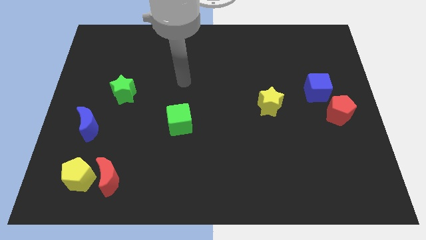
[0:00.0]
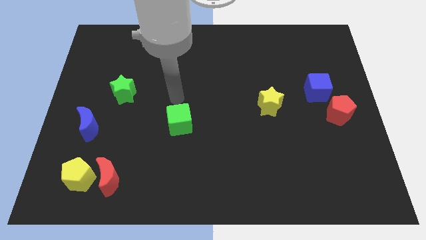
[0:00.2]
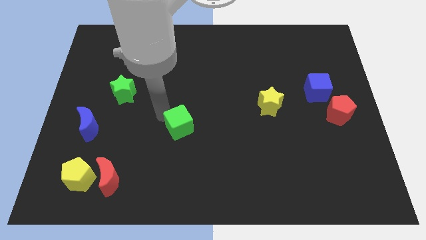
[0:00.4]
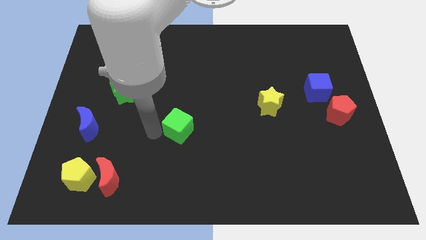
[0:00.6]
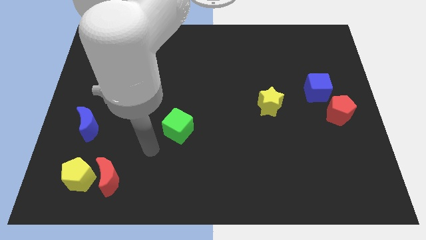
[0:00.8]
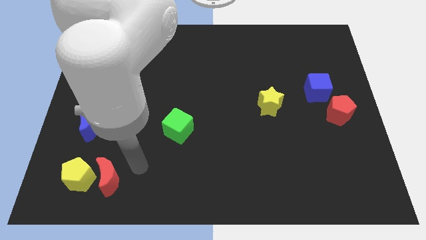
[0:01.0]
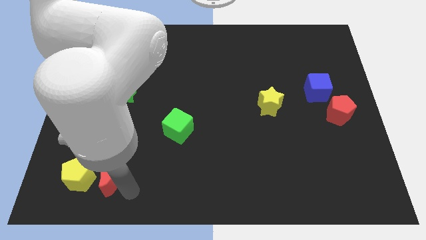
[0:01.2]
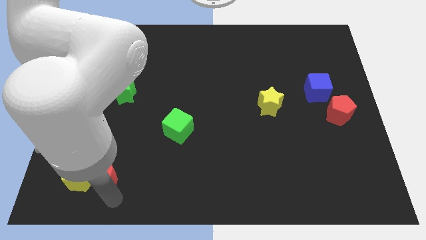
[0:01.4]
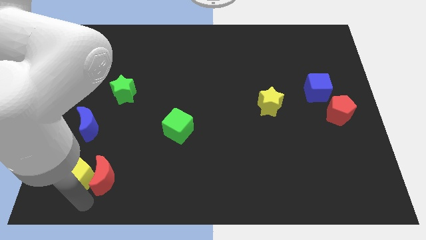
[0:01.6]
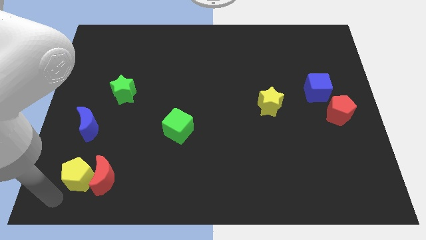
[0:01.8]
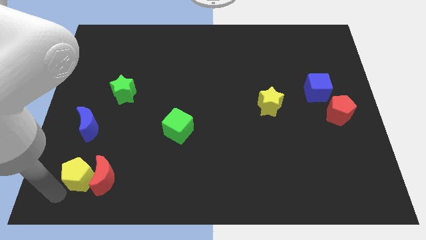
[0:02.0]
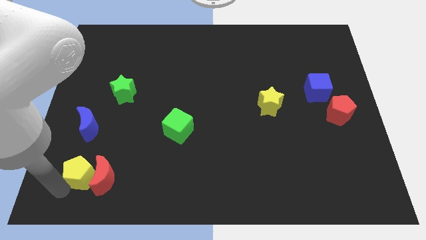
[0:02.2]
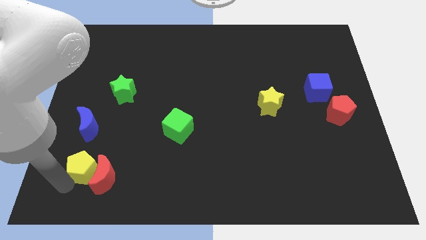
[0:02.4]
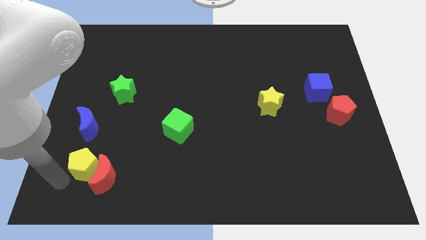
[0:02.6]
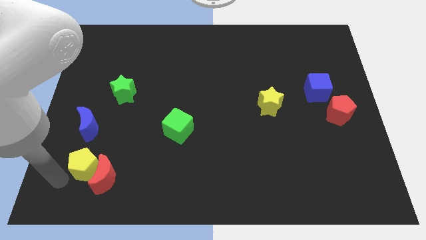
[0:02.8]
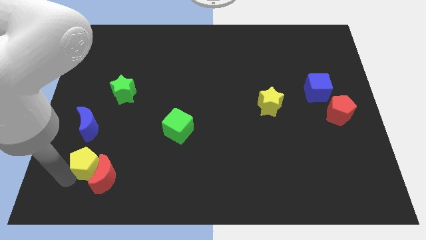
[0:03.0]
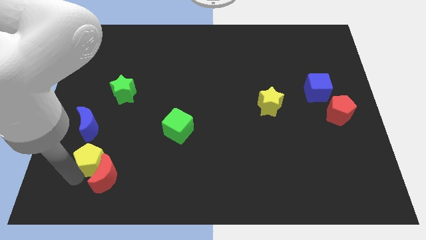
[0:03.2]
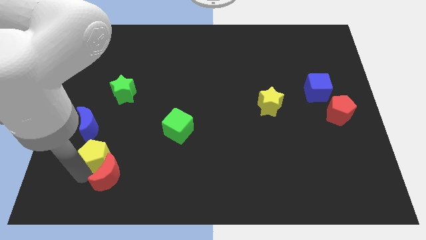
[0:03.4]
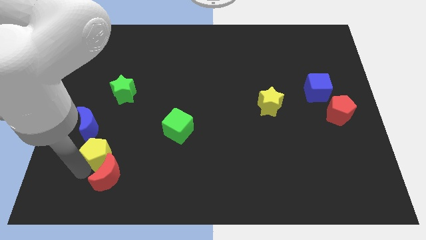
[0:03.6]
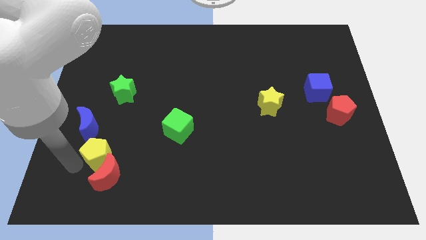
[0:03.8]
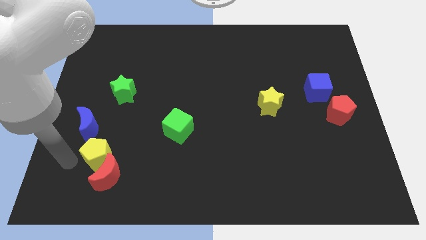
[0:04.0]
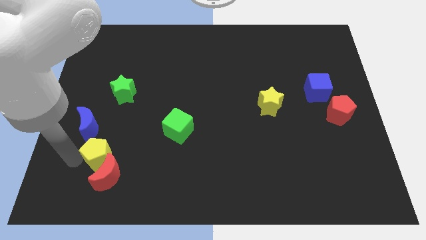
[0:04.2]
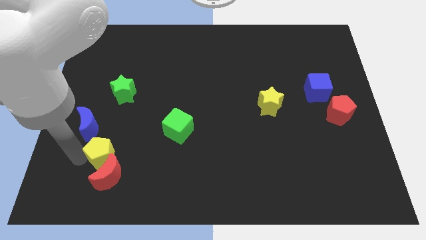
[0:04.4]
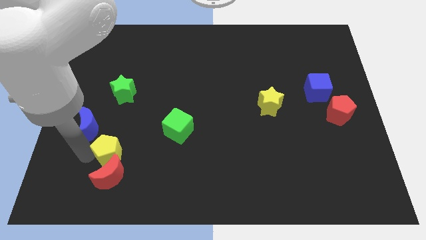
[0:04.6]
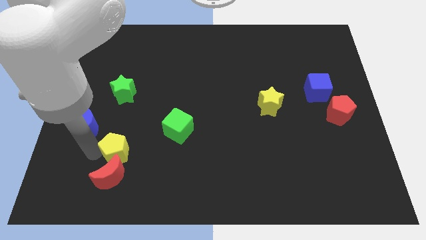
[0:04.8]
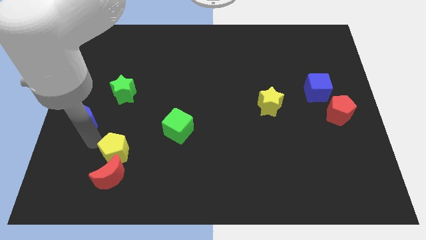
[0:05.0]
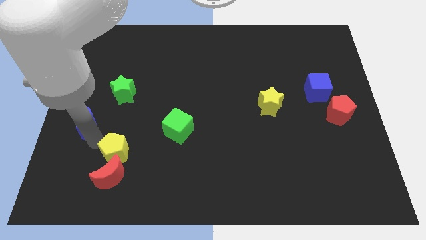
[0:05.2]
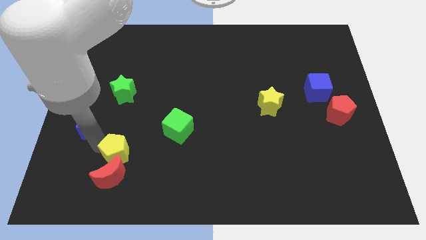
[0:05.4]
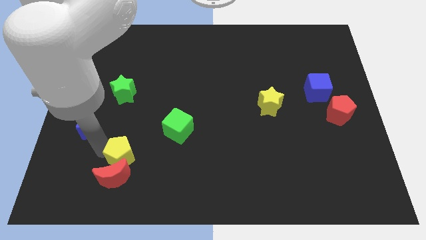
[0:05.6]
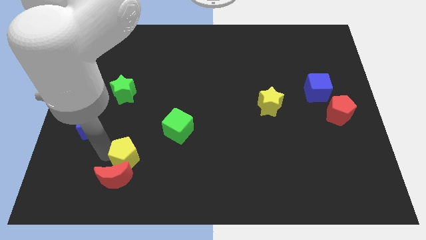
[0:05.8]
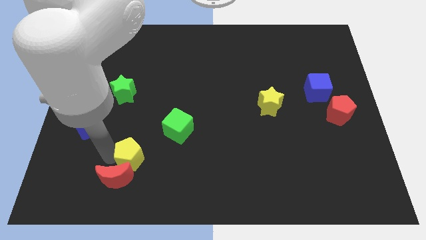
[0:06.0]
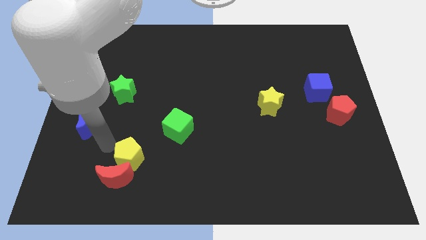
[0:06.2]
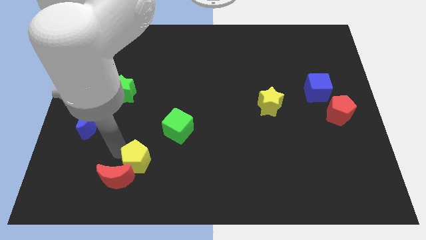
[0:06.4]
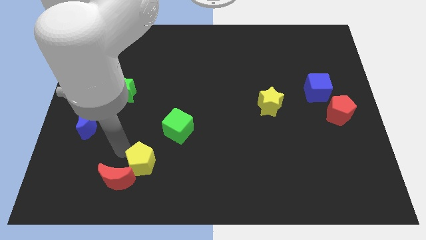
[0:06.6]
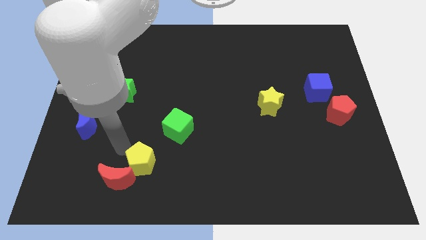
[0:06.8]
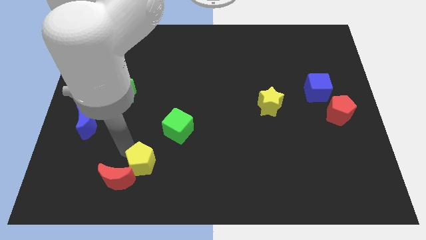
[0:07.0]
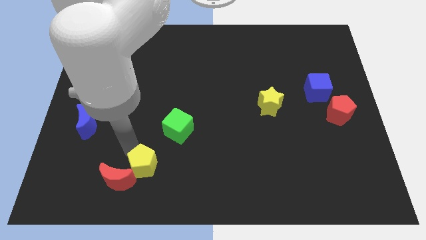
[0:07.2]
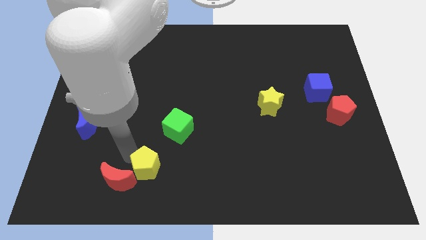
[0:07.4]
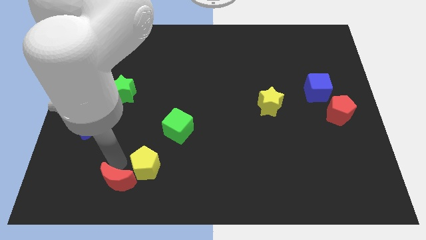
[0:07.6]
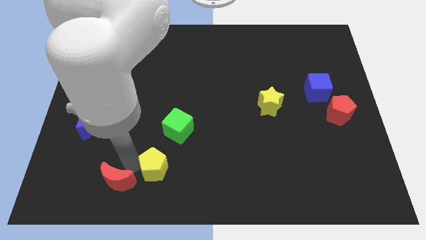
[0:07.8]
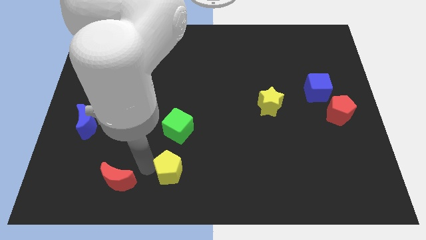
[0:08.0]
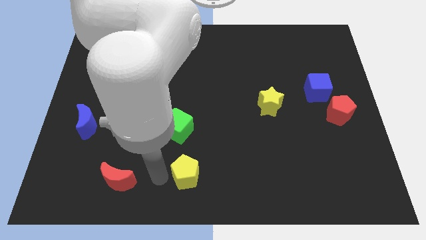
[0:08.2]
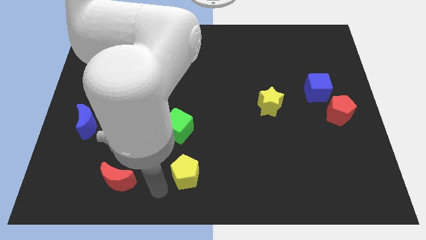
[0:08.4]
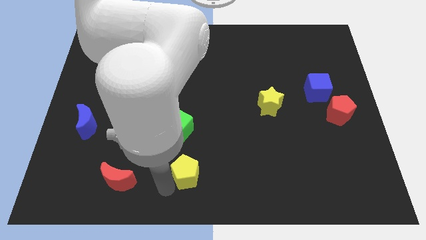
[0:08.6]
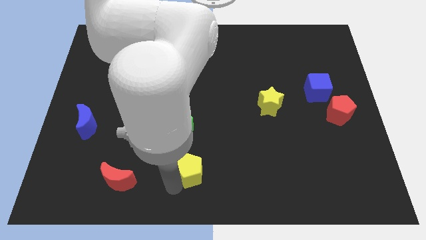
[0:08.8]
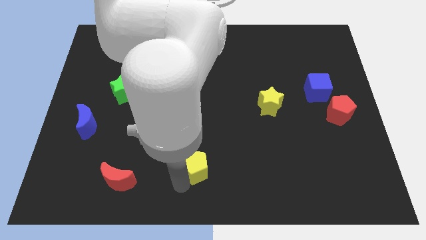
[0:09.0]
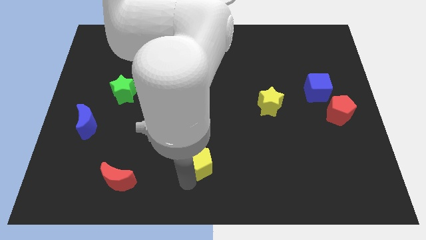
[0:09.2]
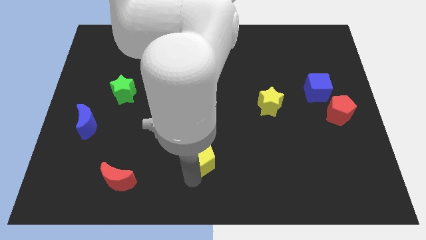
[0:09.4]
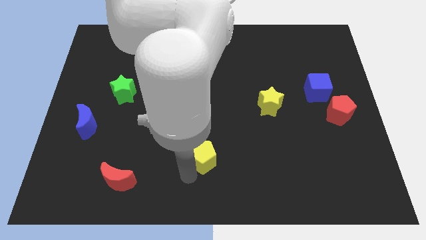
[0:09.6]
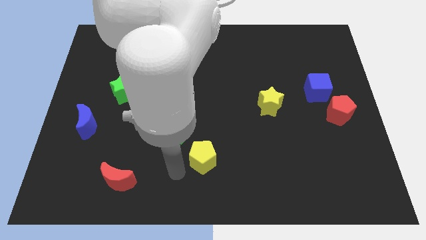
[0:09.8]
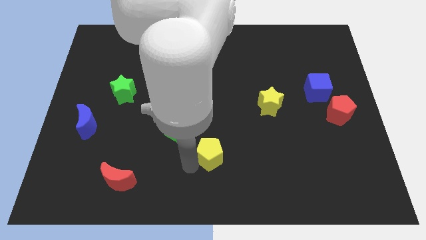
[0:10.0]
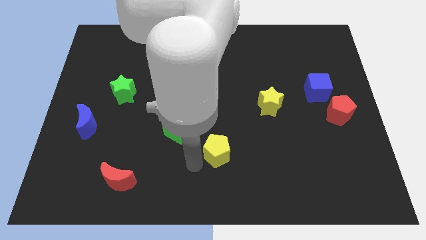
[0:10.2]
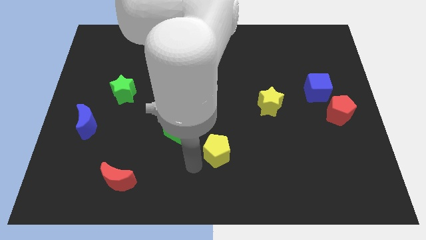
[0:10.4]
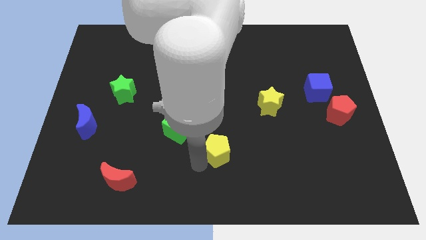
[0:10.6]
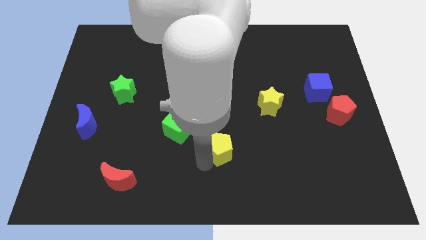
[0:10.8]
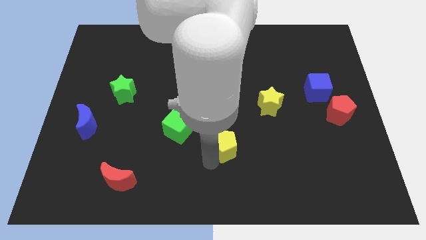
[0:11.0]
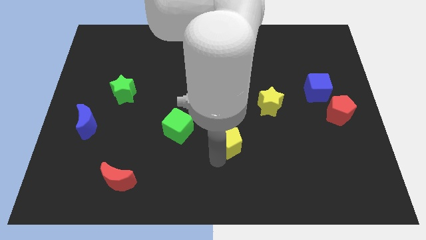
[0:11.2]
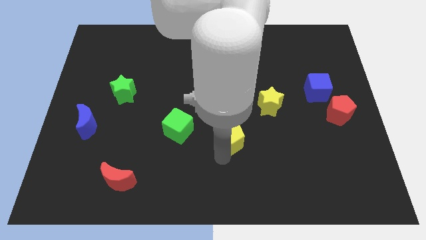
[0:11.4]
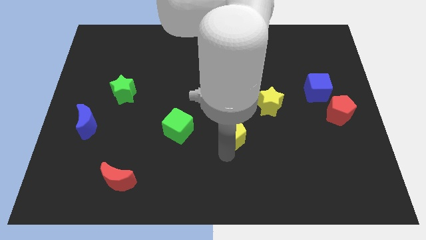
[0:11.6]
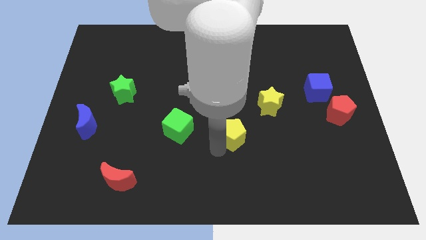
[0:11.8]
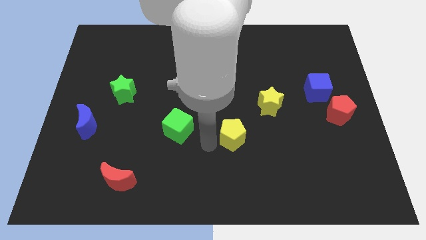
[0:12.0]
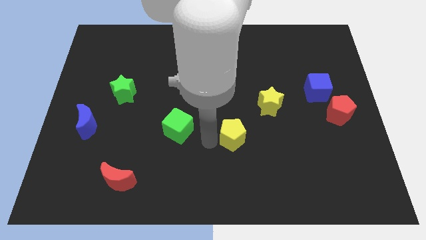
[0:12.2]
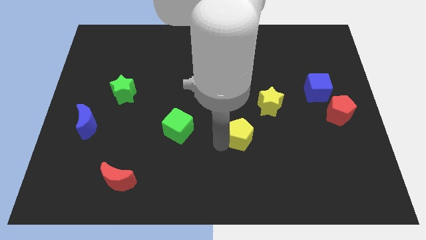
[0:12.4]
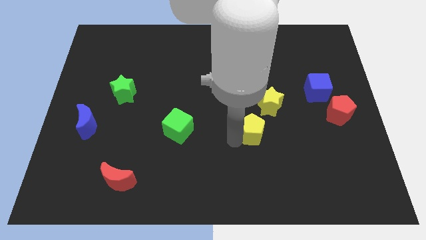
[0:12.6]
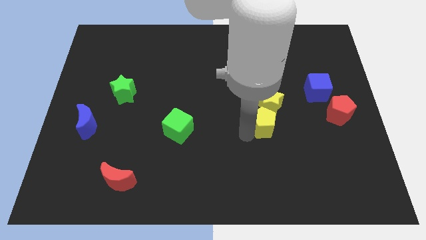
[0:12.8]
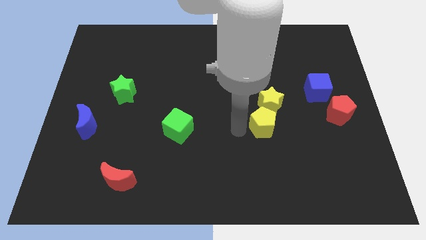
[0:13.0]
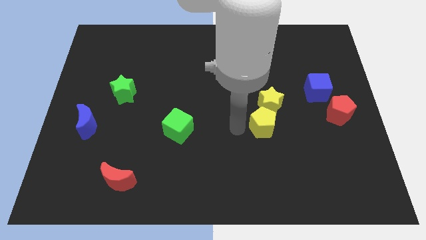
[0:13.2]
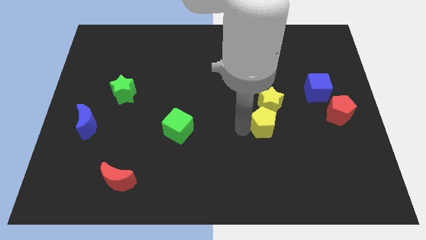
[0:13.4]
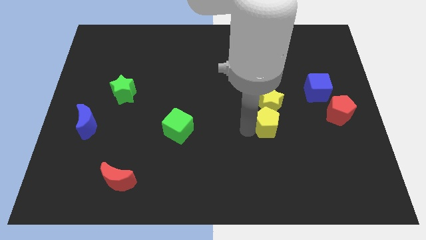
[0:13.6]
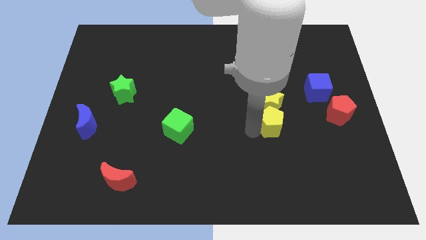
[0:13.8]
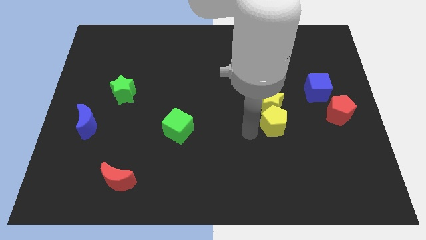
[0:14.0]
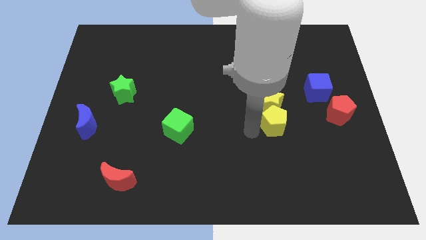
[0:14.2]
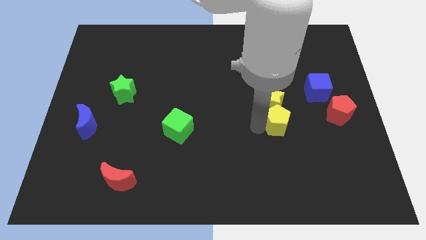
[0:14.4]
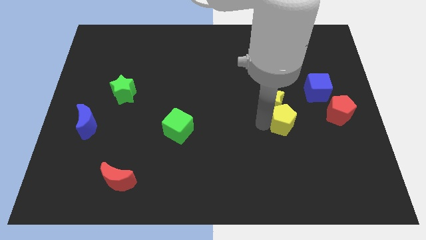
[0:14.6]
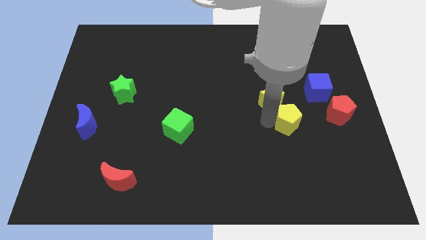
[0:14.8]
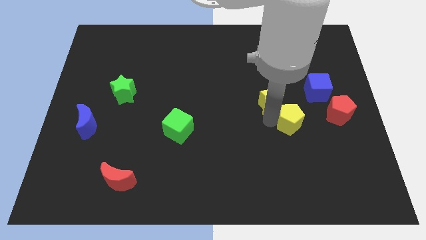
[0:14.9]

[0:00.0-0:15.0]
put the yellow pentagon to the right side of the yellow star
